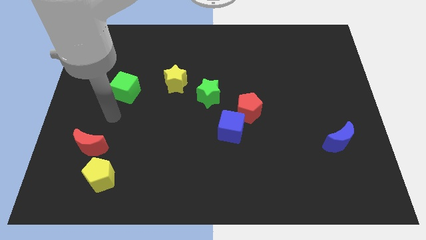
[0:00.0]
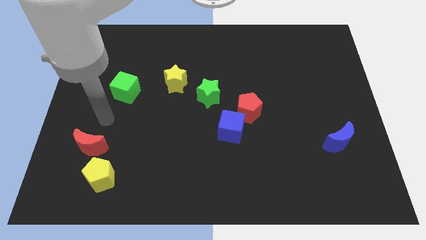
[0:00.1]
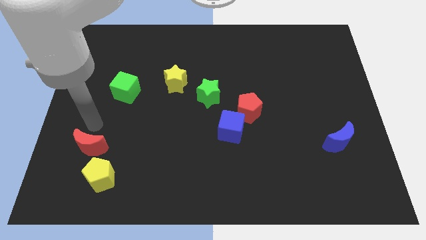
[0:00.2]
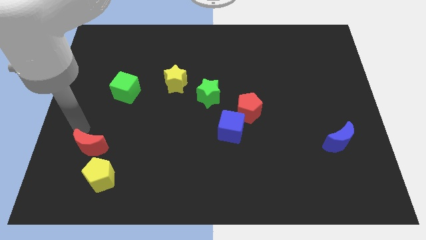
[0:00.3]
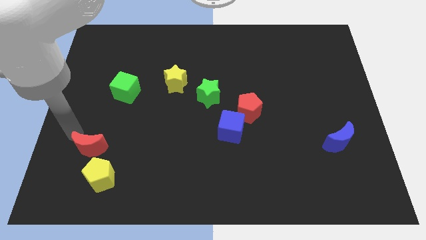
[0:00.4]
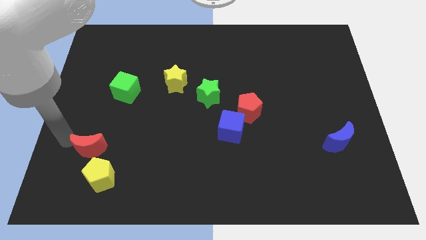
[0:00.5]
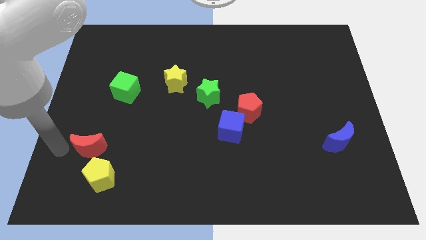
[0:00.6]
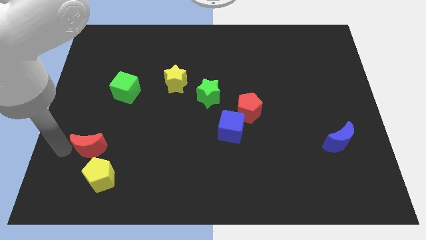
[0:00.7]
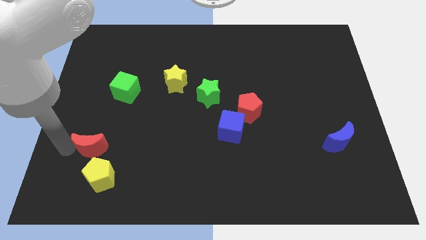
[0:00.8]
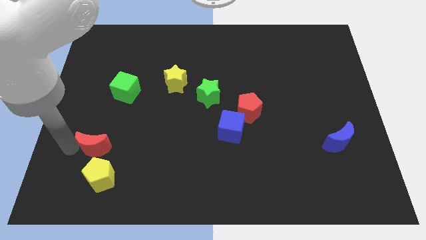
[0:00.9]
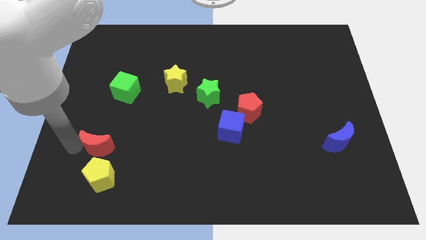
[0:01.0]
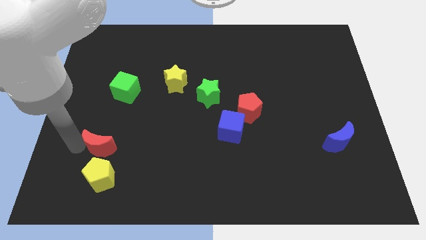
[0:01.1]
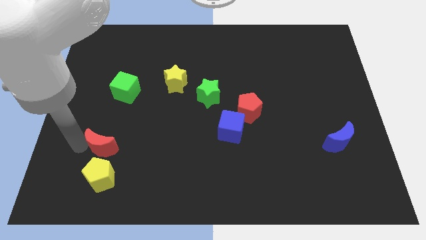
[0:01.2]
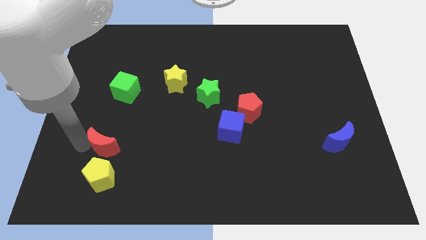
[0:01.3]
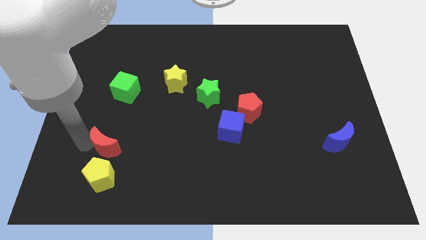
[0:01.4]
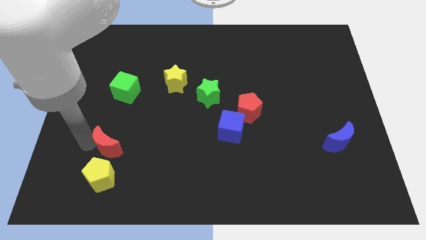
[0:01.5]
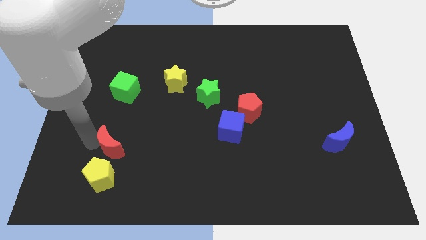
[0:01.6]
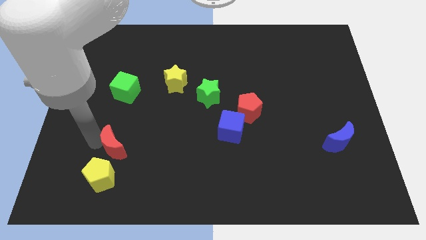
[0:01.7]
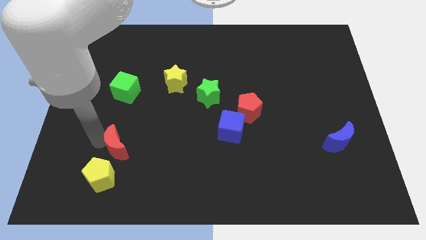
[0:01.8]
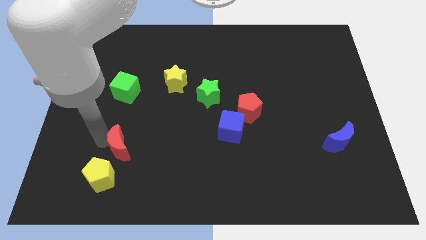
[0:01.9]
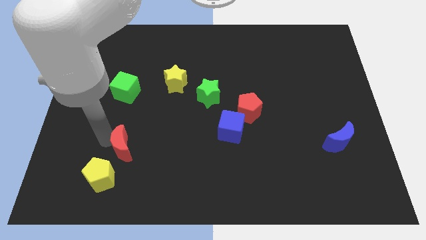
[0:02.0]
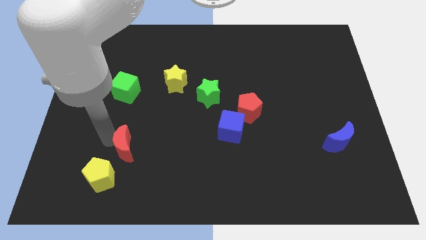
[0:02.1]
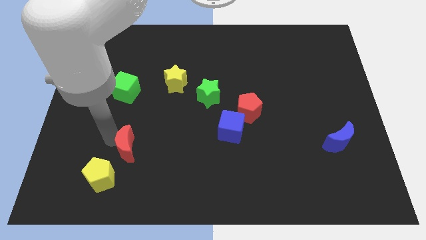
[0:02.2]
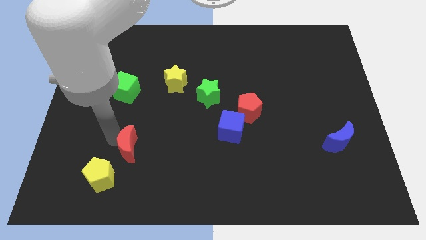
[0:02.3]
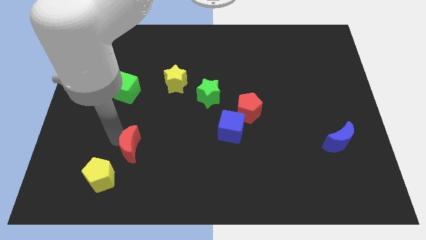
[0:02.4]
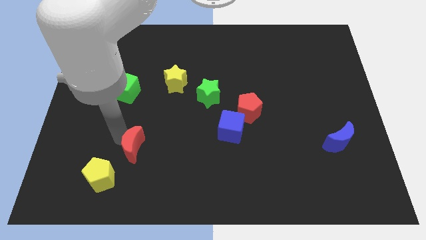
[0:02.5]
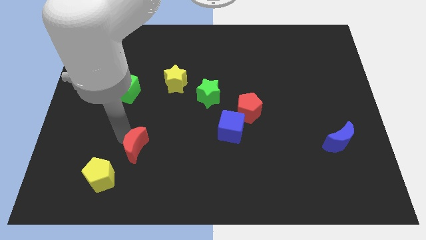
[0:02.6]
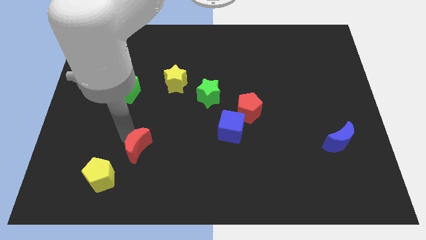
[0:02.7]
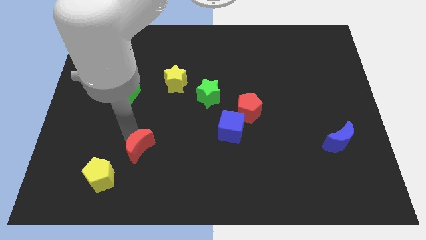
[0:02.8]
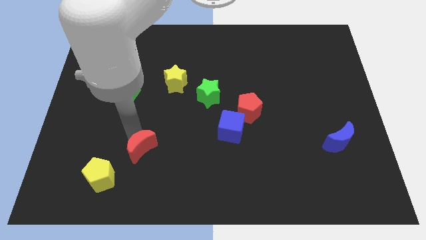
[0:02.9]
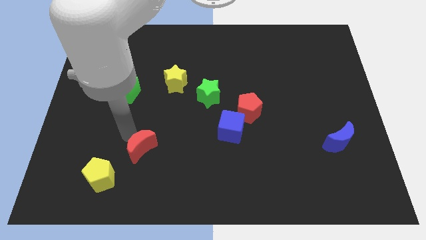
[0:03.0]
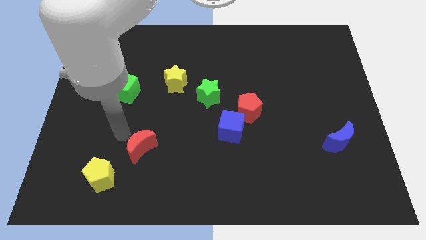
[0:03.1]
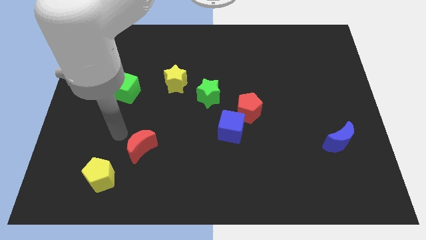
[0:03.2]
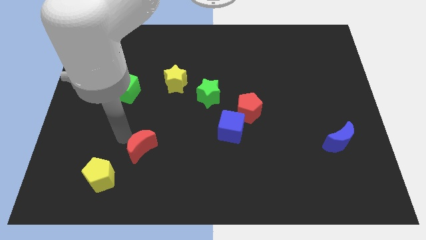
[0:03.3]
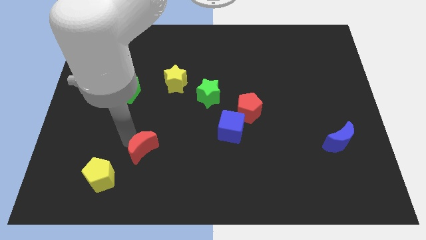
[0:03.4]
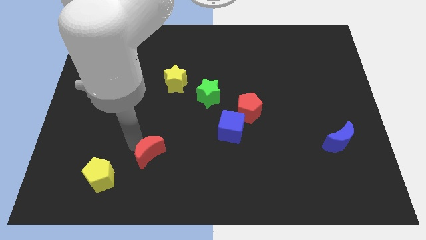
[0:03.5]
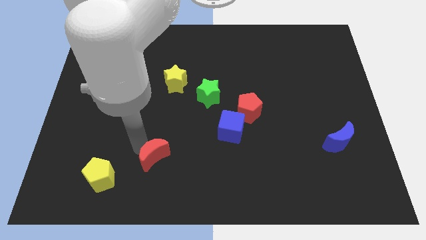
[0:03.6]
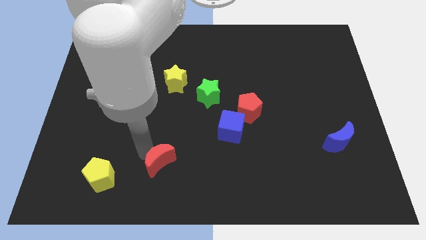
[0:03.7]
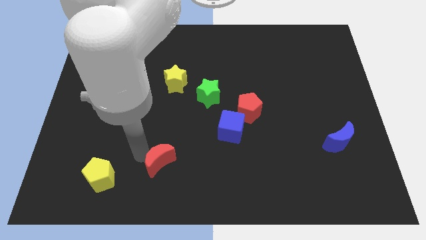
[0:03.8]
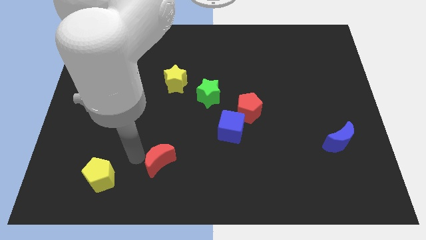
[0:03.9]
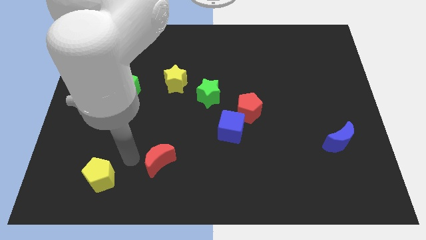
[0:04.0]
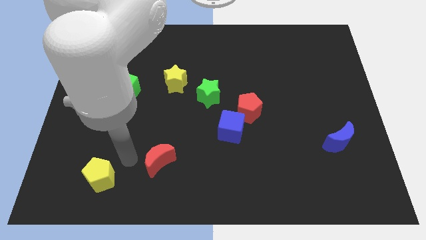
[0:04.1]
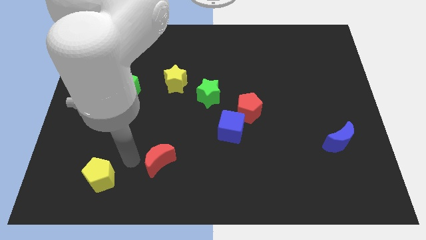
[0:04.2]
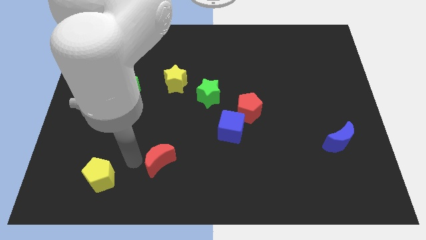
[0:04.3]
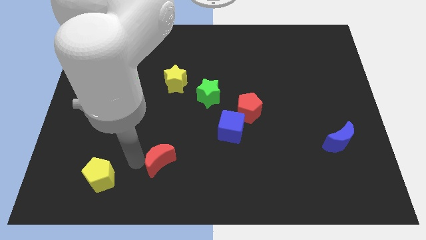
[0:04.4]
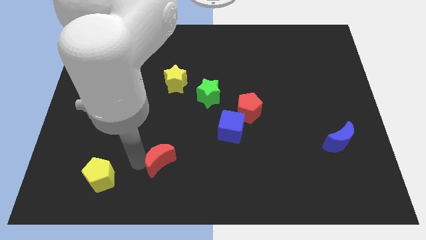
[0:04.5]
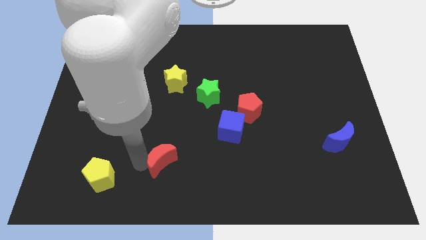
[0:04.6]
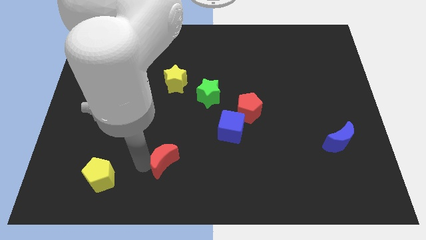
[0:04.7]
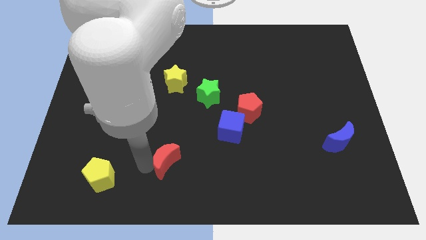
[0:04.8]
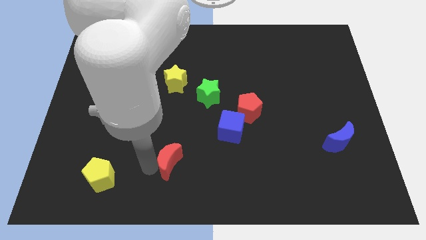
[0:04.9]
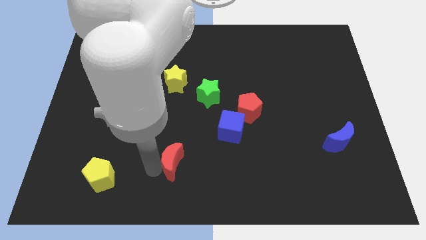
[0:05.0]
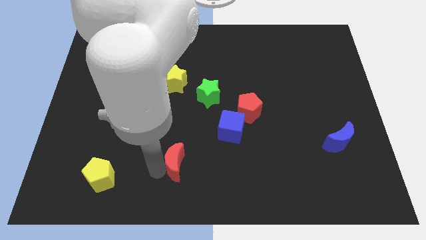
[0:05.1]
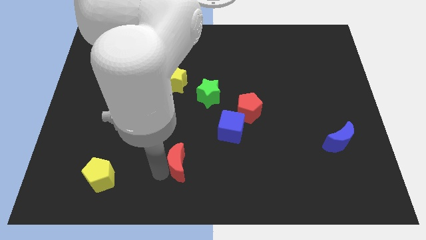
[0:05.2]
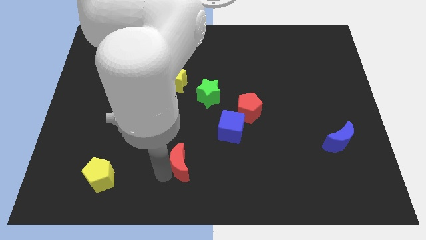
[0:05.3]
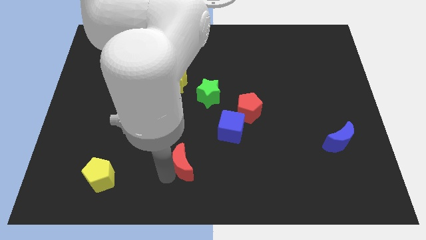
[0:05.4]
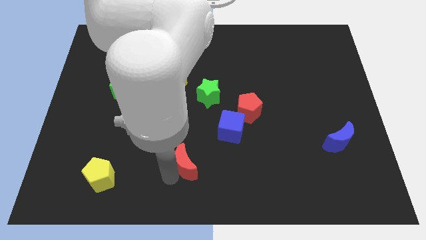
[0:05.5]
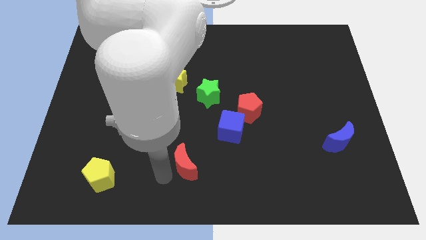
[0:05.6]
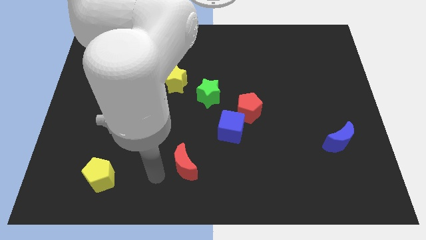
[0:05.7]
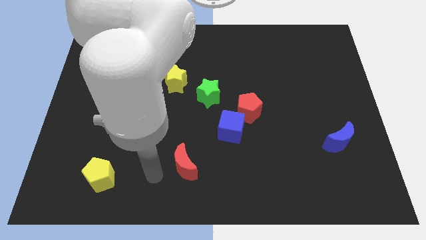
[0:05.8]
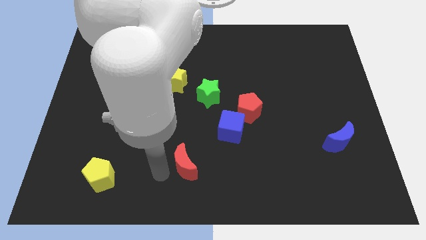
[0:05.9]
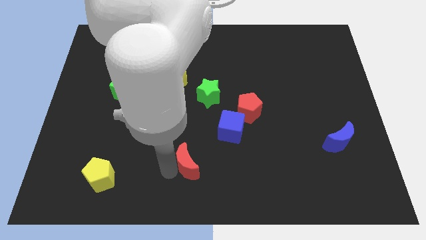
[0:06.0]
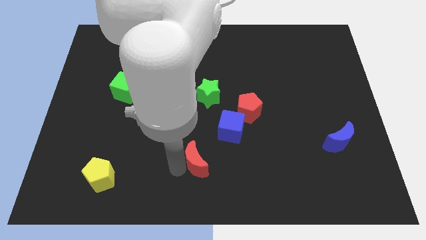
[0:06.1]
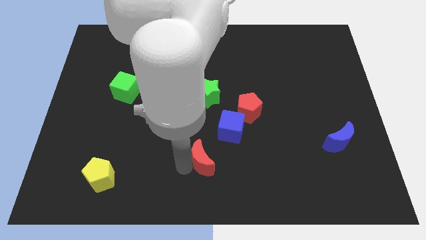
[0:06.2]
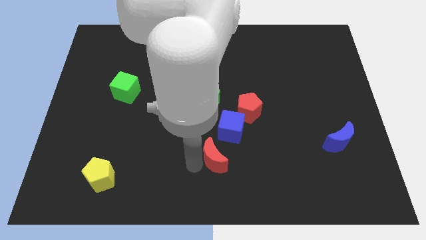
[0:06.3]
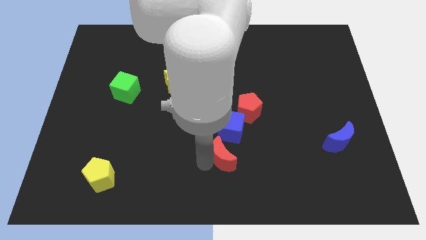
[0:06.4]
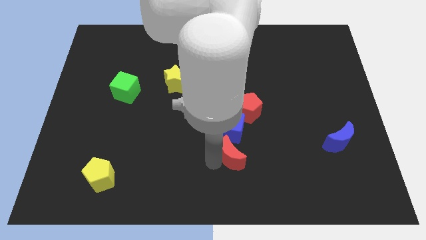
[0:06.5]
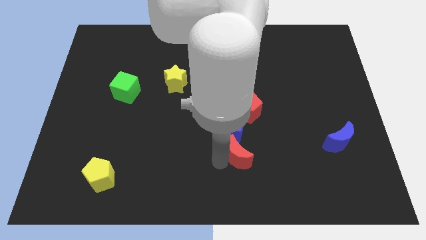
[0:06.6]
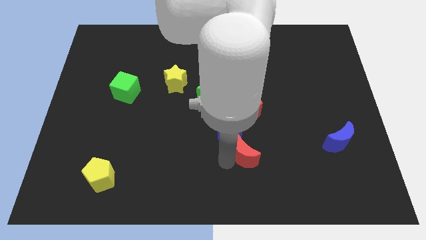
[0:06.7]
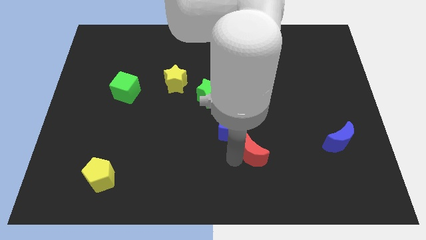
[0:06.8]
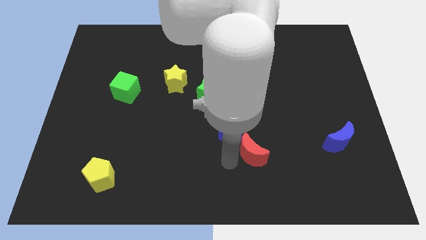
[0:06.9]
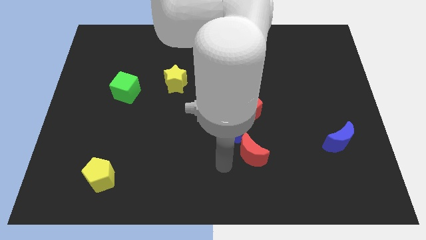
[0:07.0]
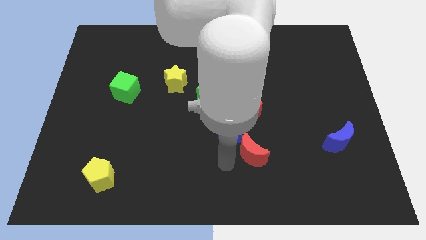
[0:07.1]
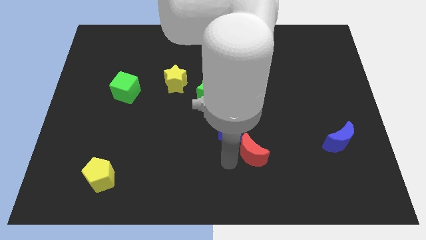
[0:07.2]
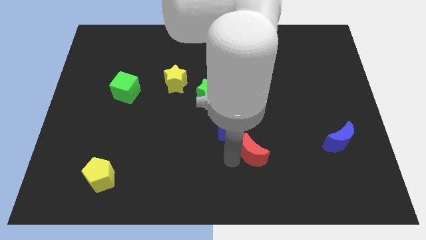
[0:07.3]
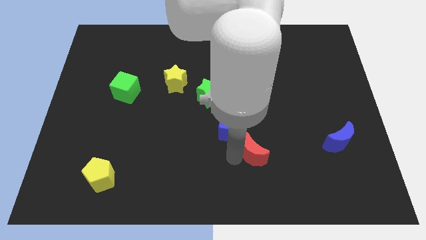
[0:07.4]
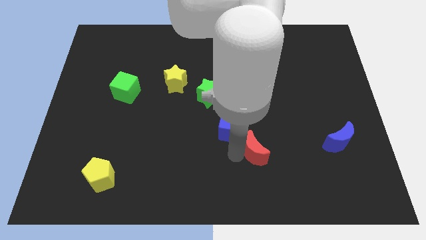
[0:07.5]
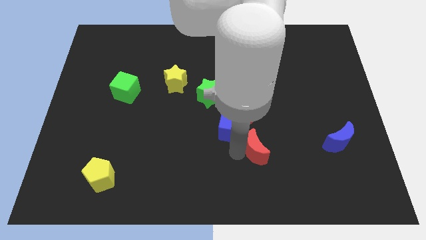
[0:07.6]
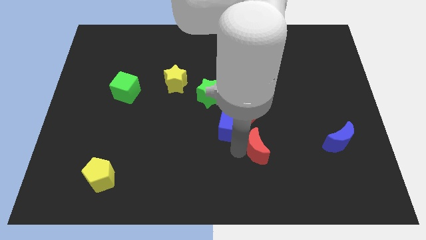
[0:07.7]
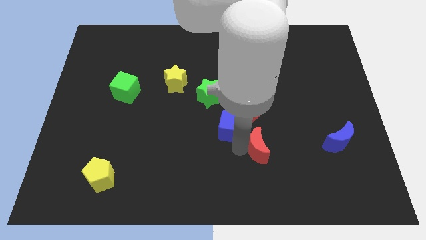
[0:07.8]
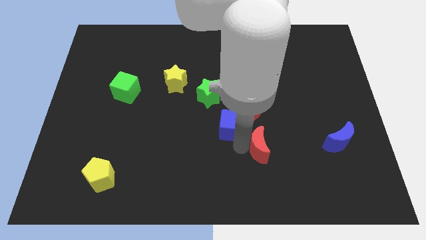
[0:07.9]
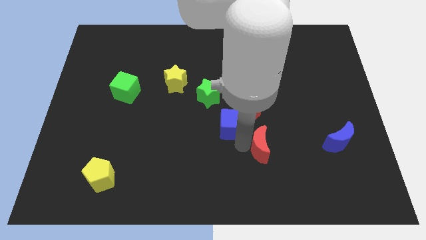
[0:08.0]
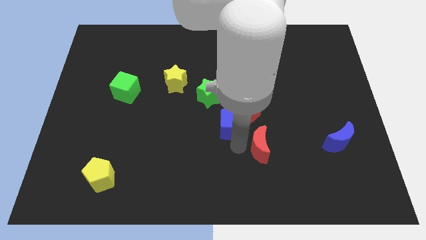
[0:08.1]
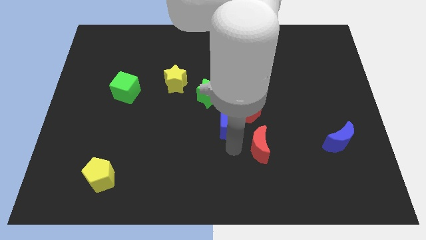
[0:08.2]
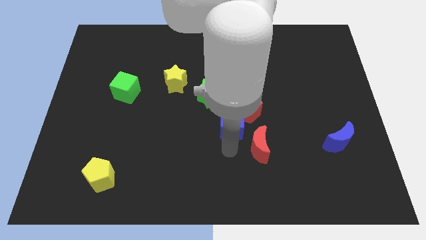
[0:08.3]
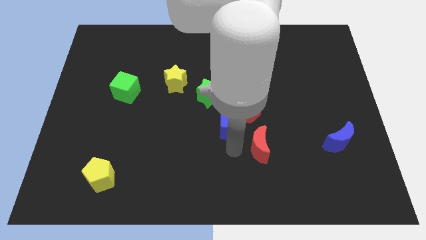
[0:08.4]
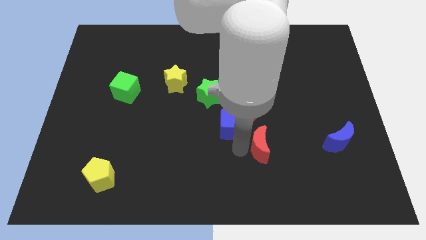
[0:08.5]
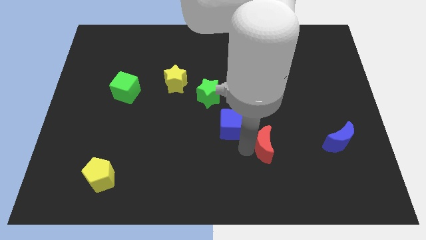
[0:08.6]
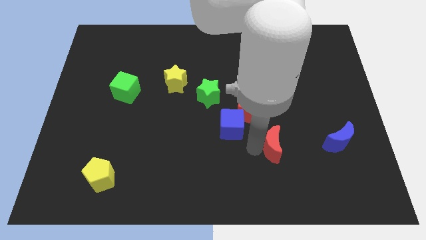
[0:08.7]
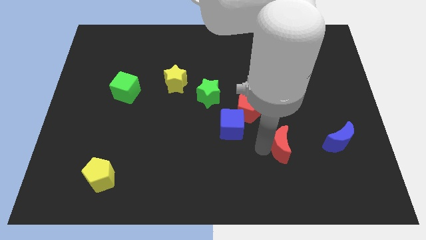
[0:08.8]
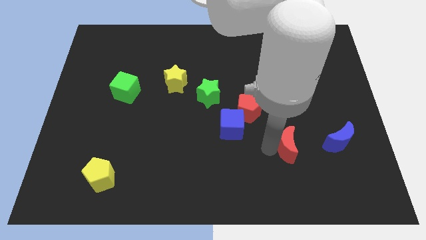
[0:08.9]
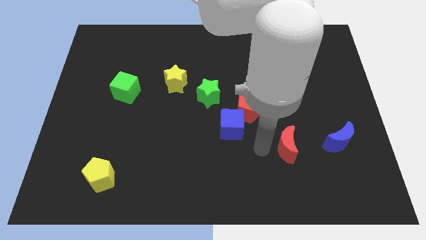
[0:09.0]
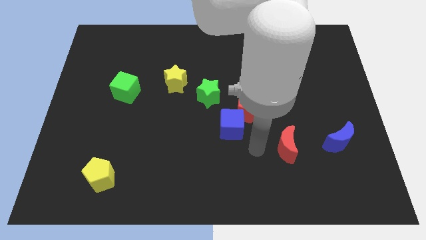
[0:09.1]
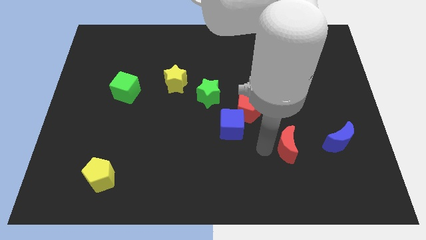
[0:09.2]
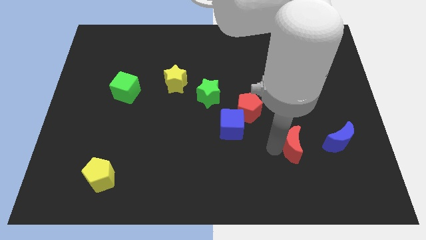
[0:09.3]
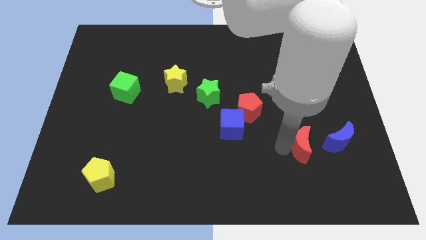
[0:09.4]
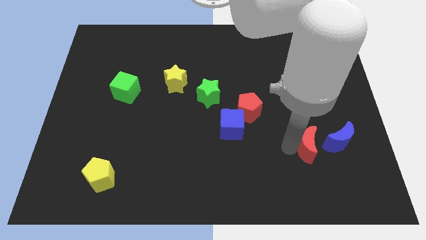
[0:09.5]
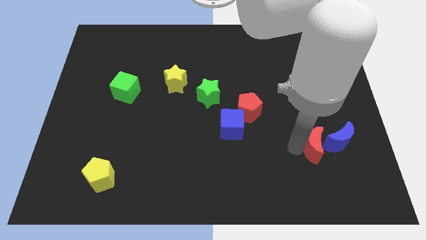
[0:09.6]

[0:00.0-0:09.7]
move the red moon to the blue moon
